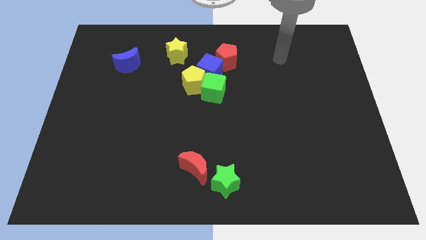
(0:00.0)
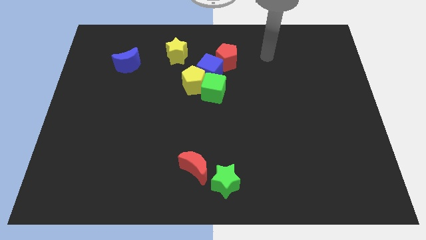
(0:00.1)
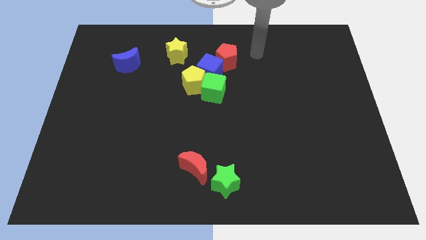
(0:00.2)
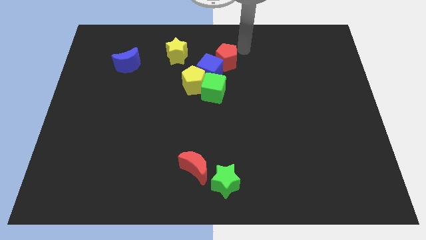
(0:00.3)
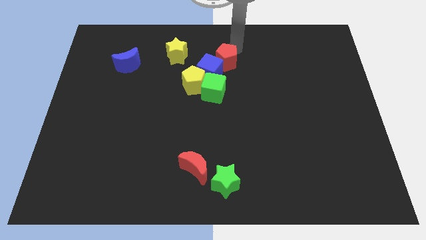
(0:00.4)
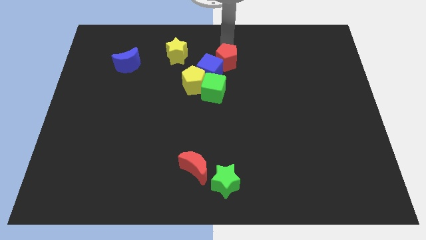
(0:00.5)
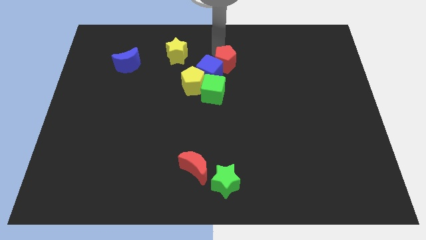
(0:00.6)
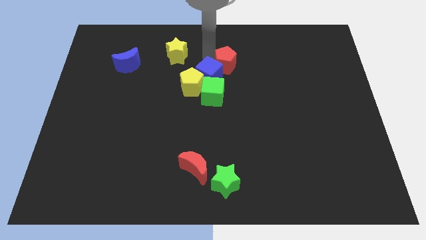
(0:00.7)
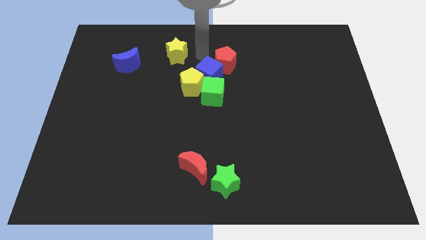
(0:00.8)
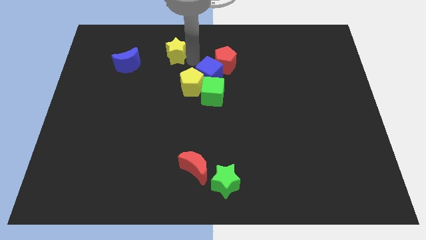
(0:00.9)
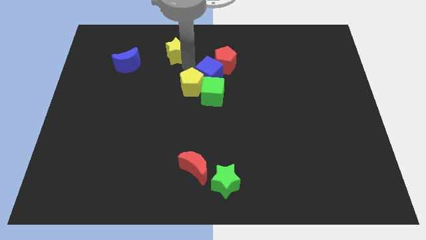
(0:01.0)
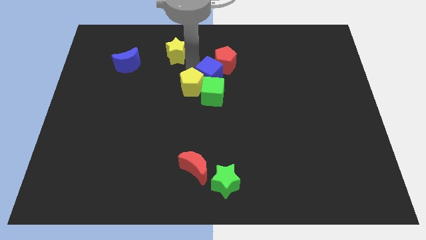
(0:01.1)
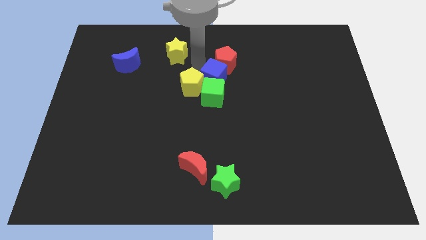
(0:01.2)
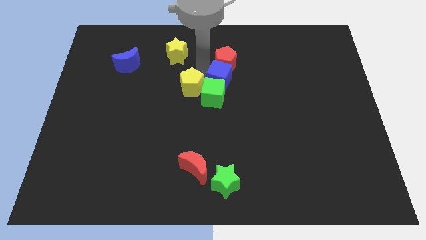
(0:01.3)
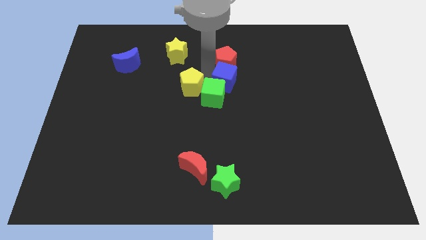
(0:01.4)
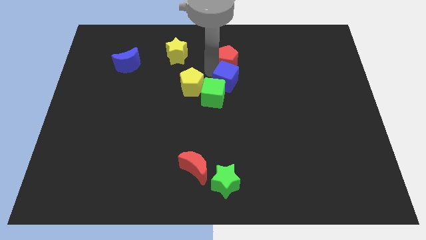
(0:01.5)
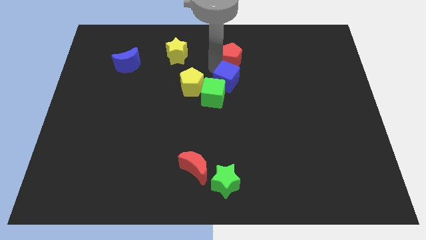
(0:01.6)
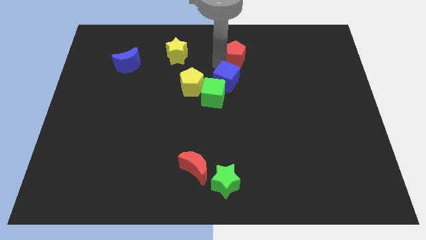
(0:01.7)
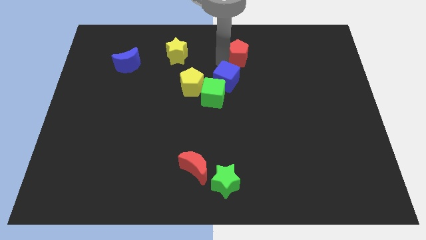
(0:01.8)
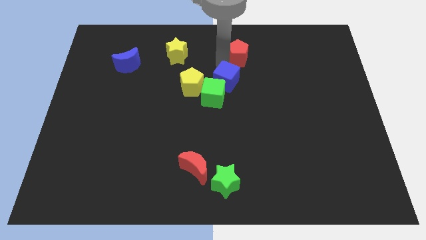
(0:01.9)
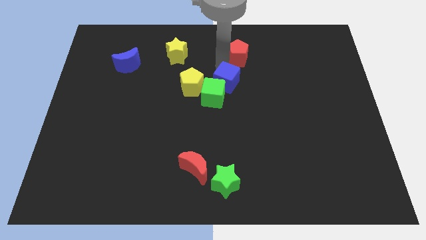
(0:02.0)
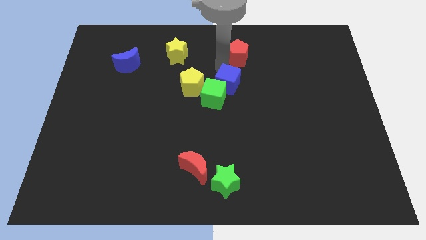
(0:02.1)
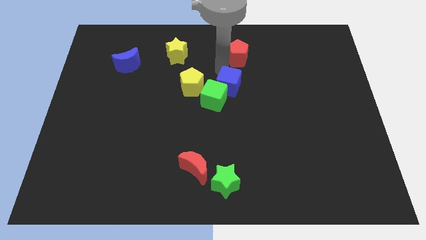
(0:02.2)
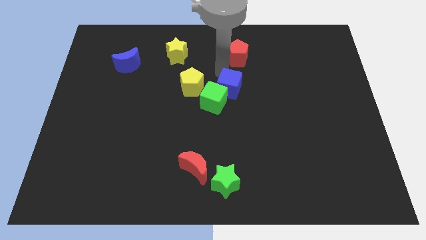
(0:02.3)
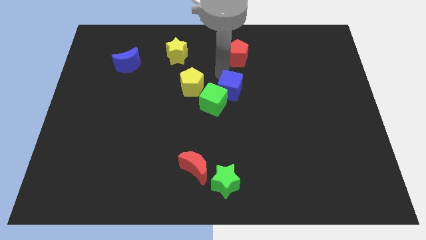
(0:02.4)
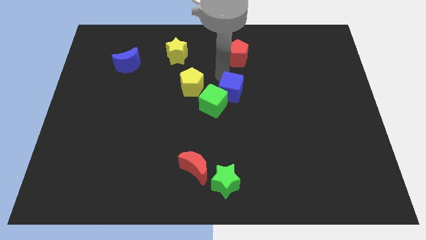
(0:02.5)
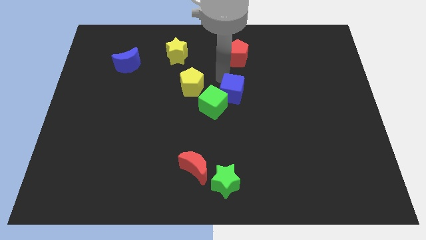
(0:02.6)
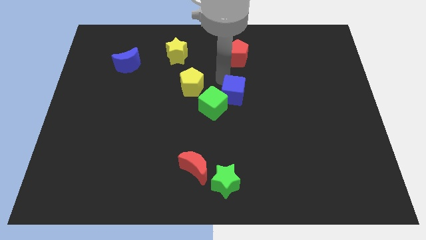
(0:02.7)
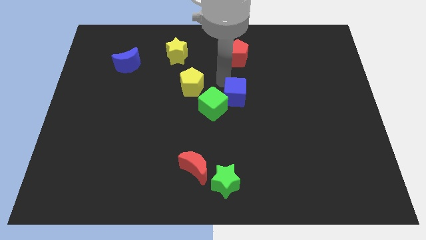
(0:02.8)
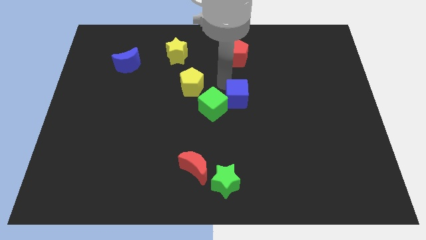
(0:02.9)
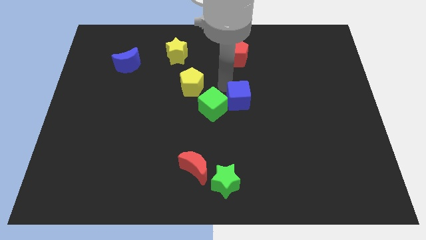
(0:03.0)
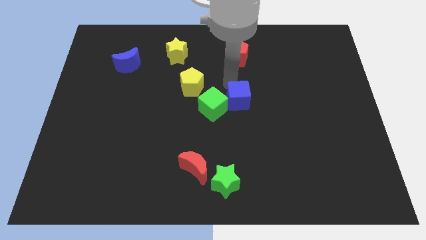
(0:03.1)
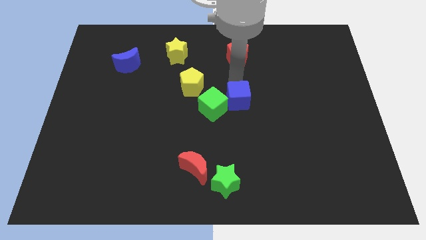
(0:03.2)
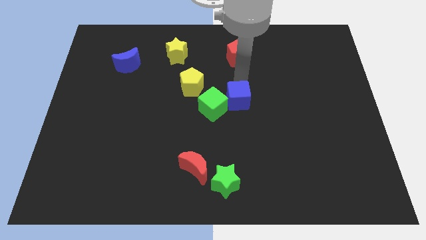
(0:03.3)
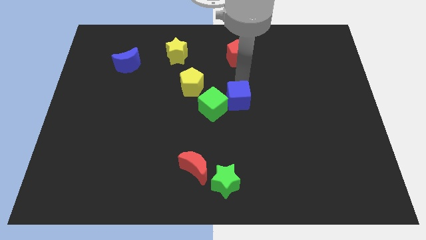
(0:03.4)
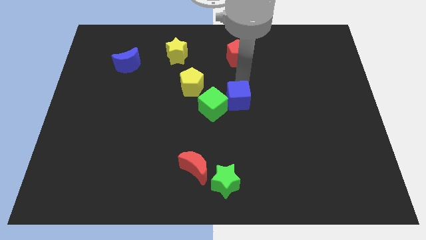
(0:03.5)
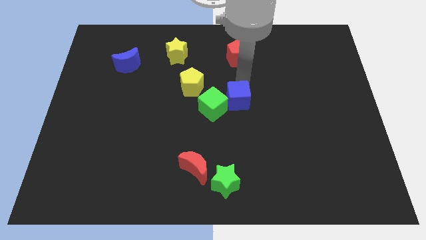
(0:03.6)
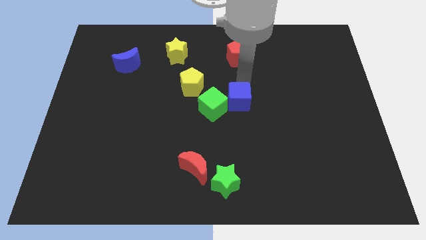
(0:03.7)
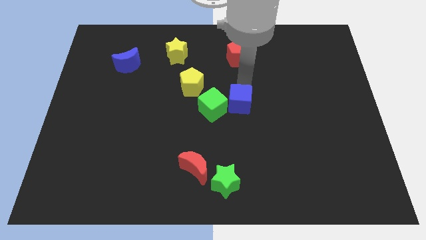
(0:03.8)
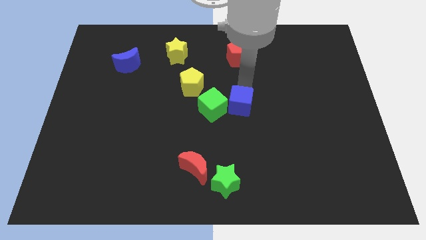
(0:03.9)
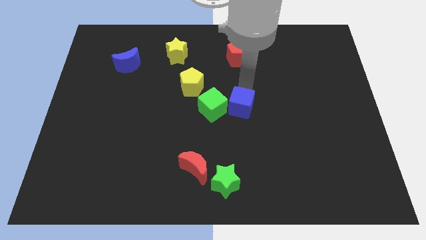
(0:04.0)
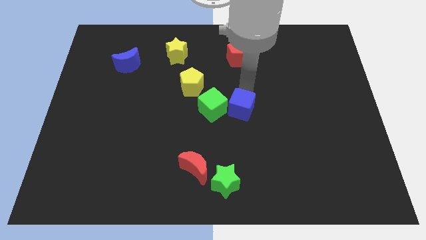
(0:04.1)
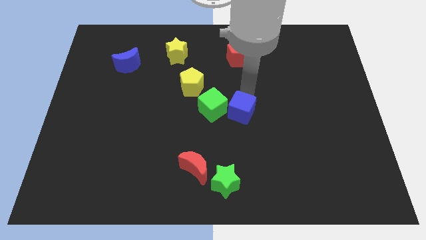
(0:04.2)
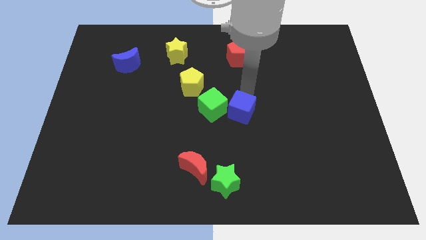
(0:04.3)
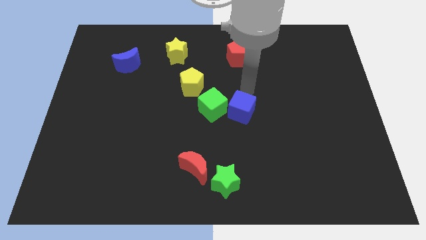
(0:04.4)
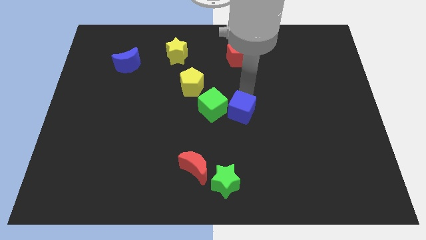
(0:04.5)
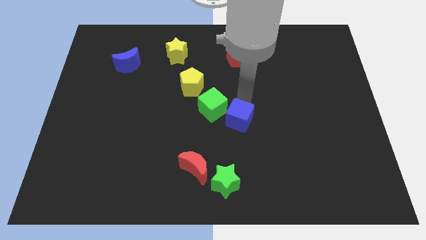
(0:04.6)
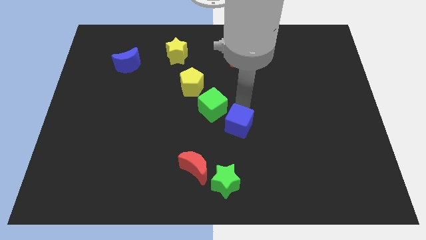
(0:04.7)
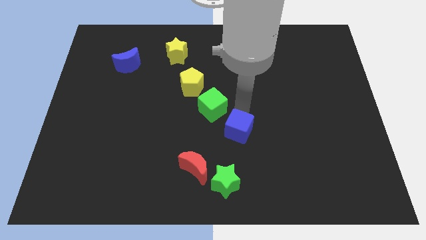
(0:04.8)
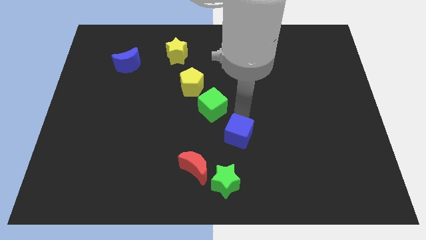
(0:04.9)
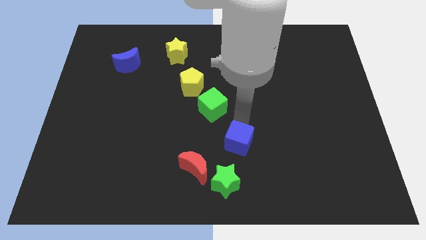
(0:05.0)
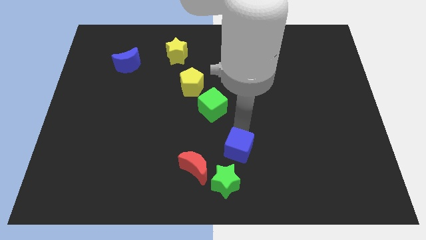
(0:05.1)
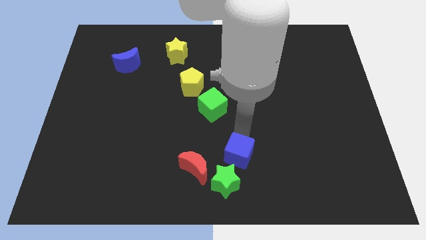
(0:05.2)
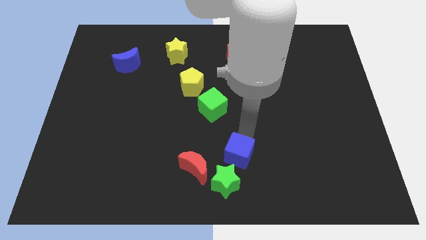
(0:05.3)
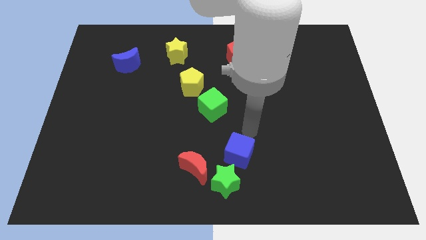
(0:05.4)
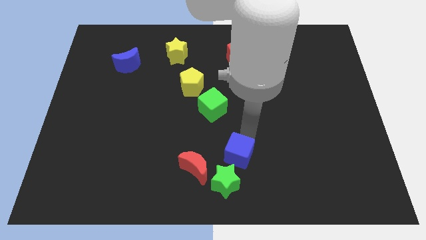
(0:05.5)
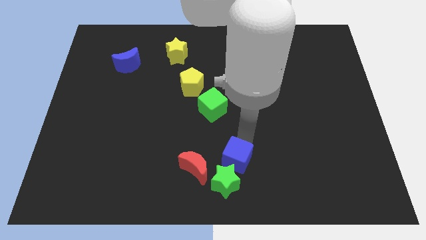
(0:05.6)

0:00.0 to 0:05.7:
put the blue cube to the green star
